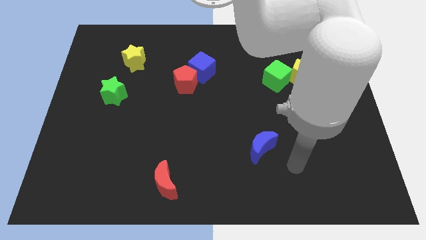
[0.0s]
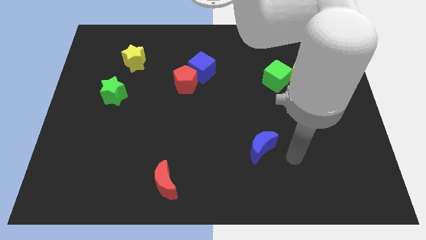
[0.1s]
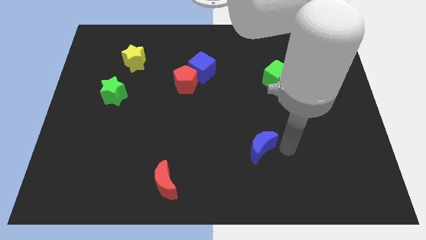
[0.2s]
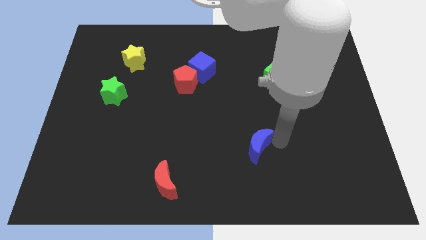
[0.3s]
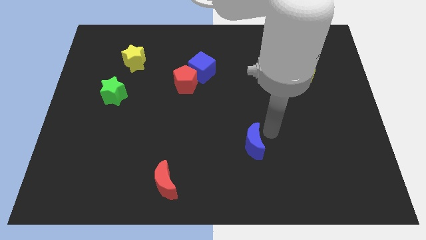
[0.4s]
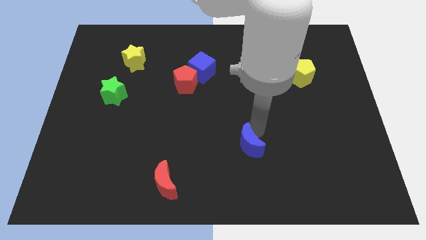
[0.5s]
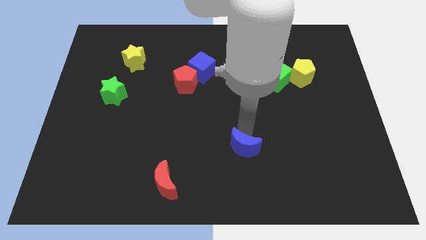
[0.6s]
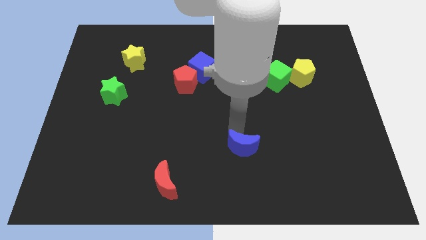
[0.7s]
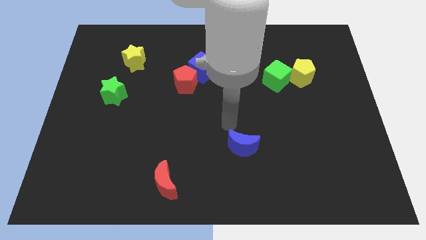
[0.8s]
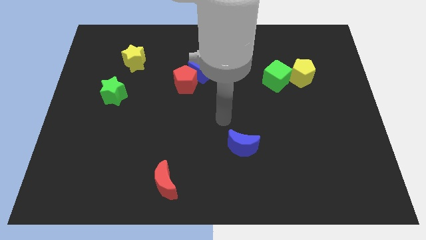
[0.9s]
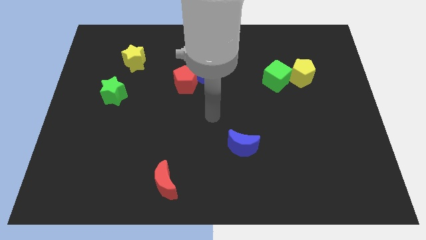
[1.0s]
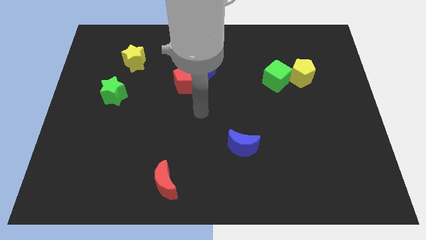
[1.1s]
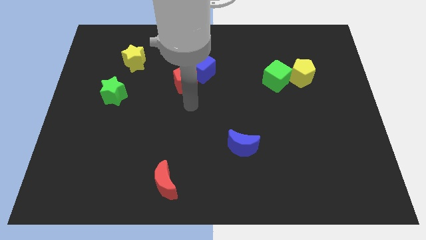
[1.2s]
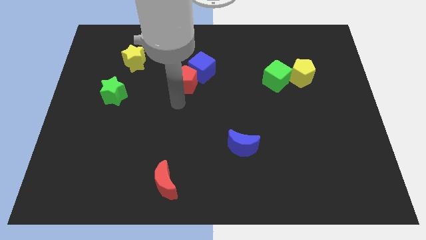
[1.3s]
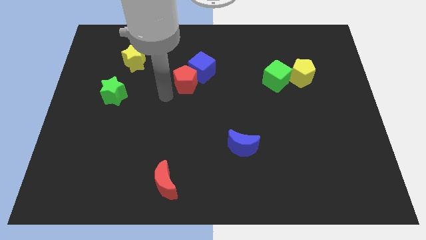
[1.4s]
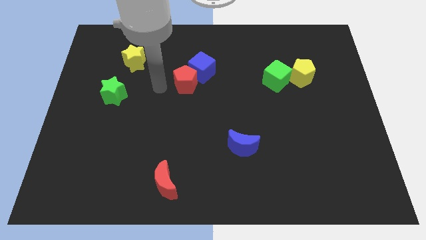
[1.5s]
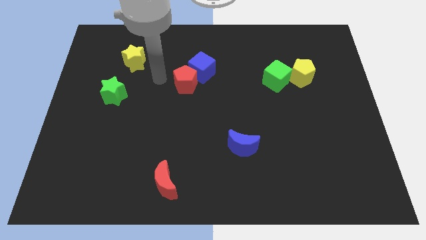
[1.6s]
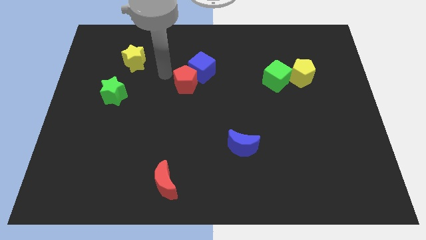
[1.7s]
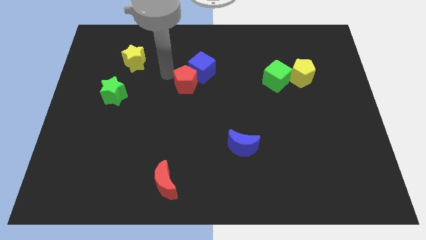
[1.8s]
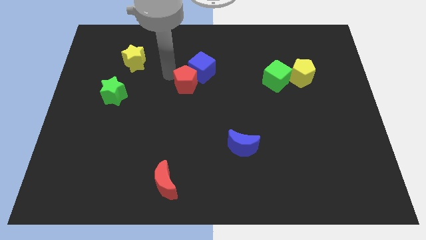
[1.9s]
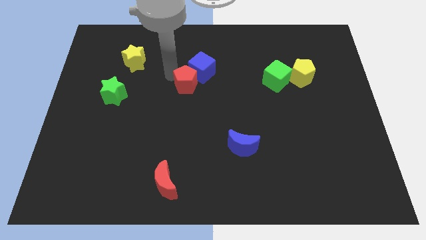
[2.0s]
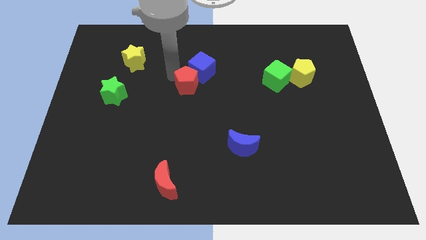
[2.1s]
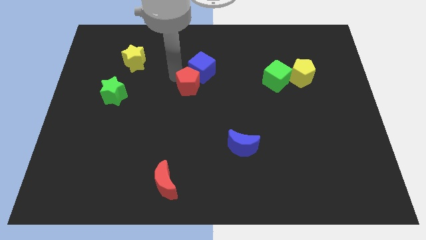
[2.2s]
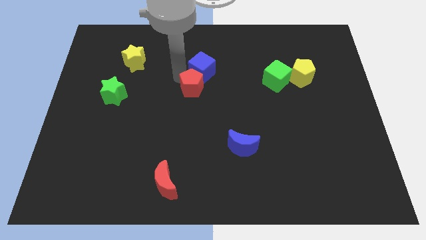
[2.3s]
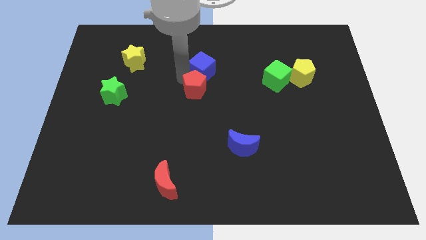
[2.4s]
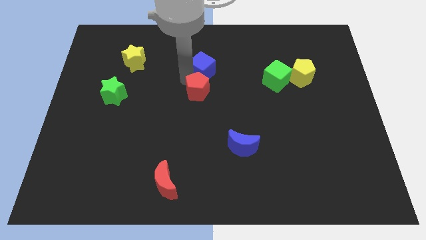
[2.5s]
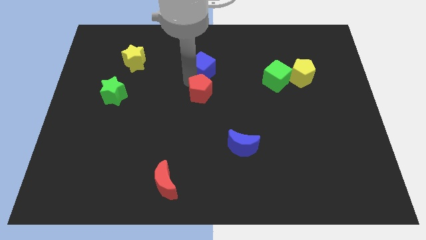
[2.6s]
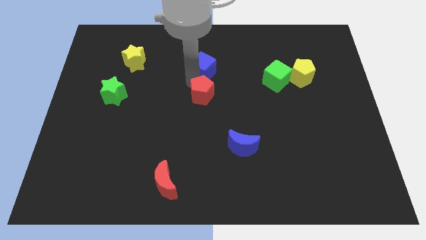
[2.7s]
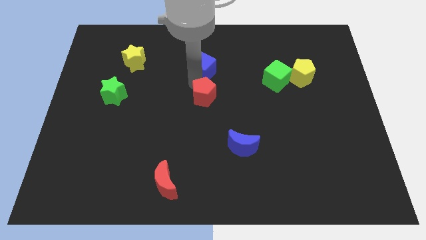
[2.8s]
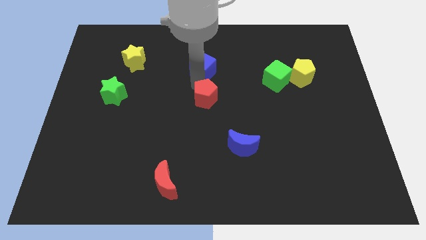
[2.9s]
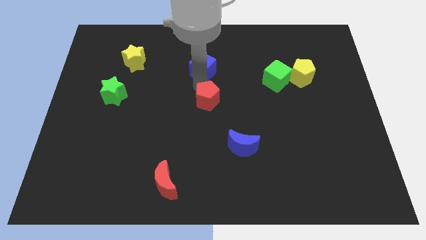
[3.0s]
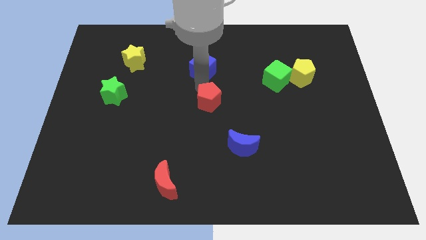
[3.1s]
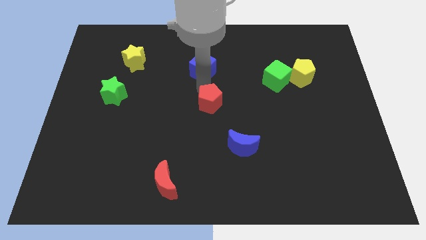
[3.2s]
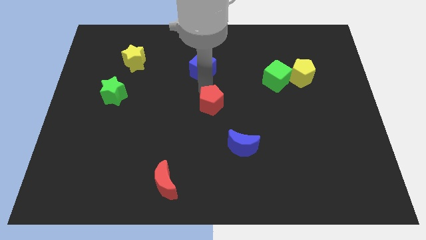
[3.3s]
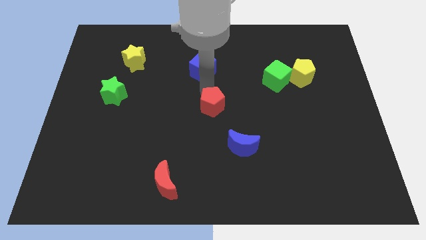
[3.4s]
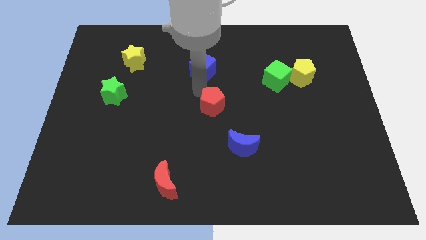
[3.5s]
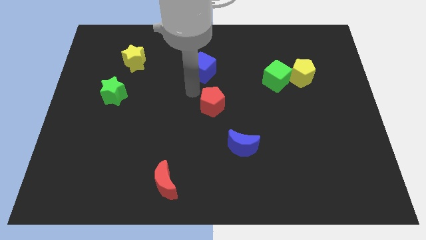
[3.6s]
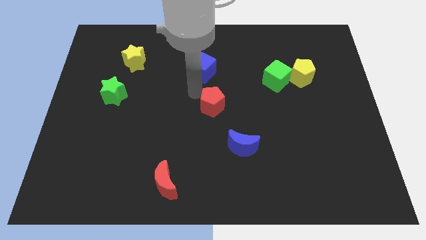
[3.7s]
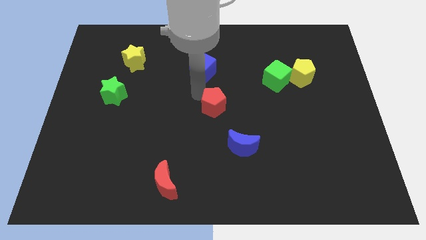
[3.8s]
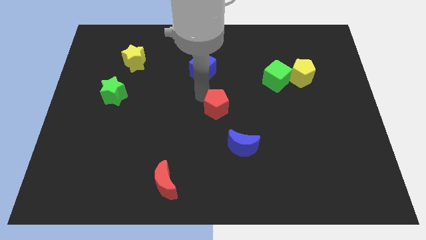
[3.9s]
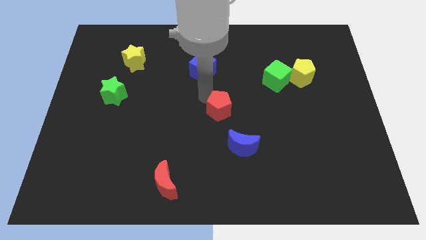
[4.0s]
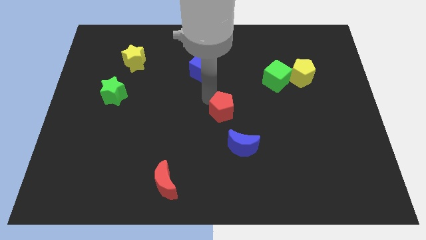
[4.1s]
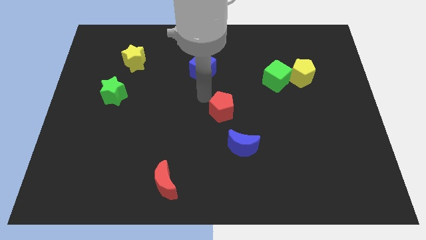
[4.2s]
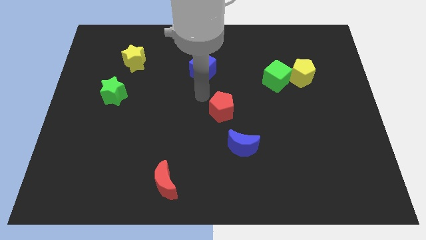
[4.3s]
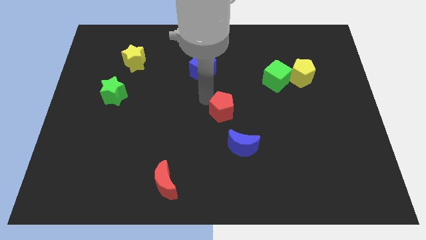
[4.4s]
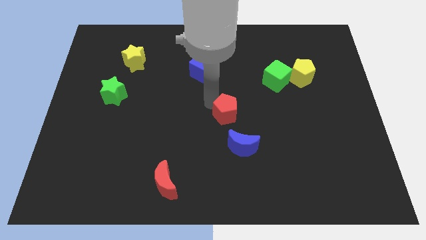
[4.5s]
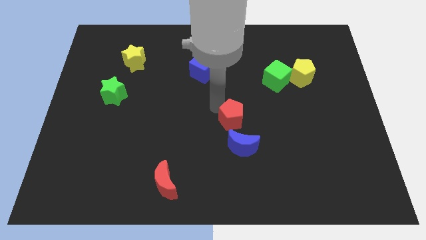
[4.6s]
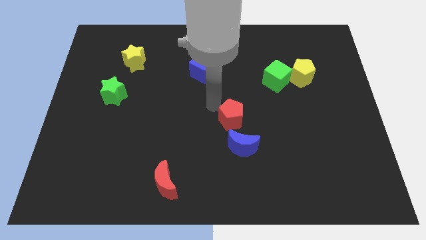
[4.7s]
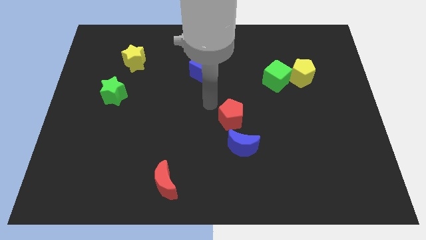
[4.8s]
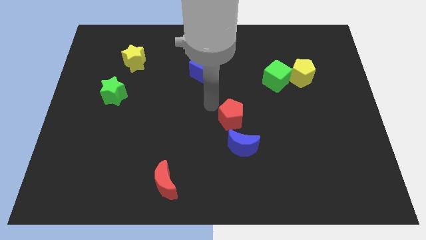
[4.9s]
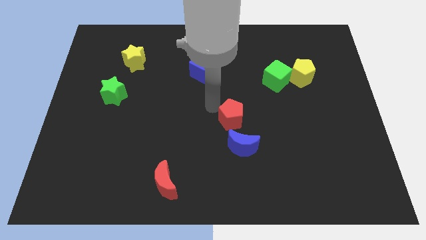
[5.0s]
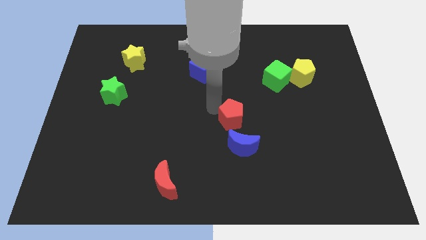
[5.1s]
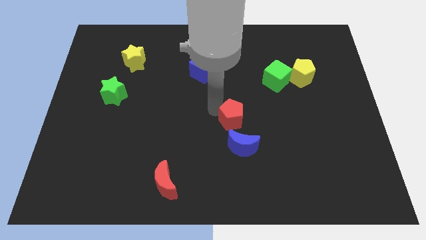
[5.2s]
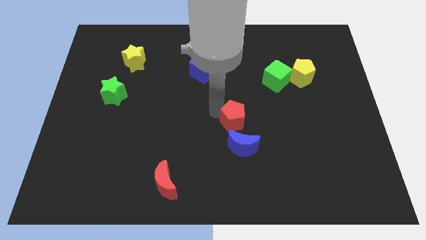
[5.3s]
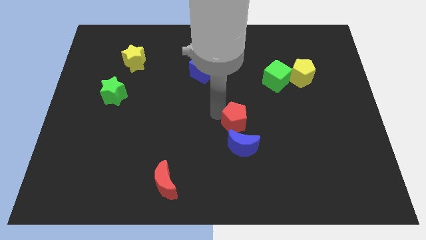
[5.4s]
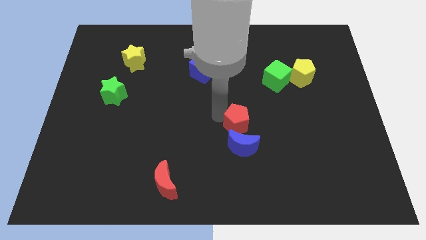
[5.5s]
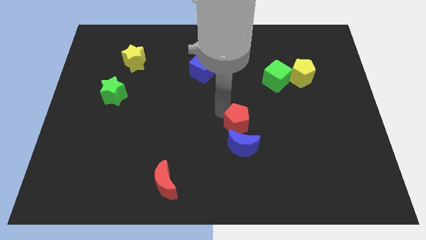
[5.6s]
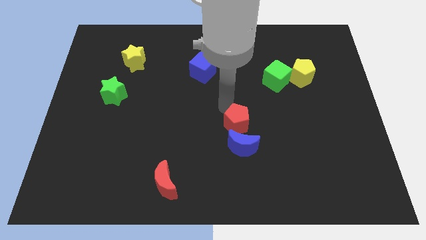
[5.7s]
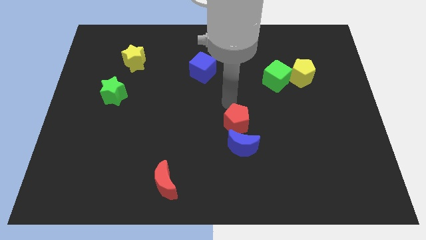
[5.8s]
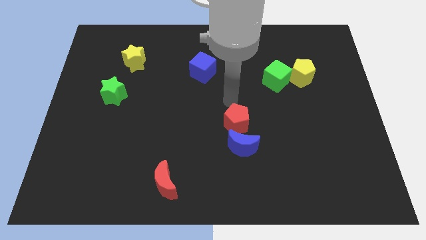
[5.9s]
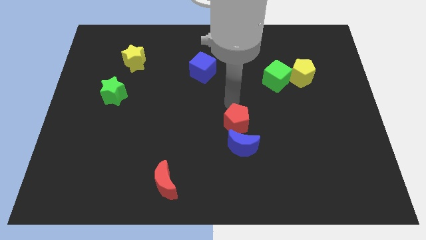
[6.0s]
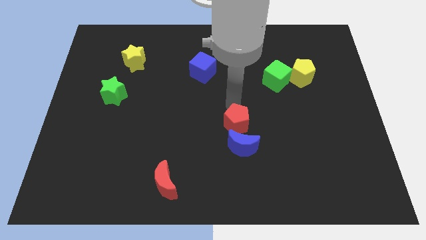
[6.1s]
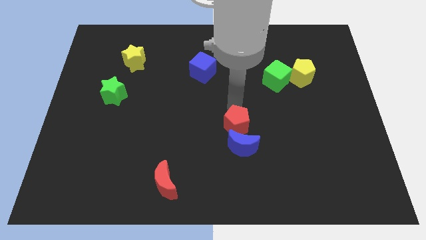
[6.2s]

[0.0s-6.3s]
slide the red pentagon next to the blue moon

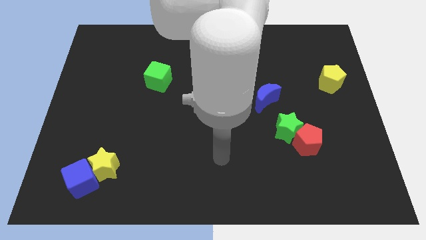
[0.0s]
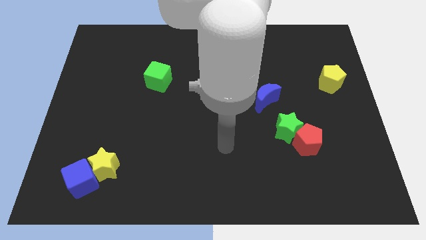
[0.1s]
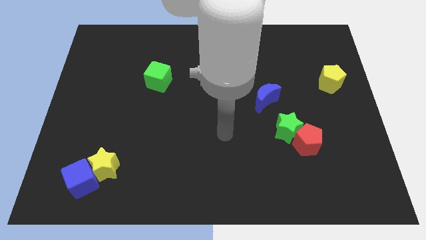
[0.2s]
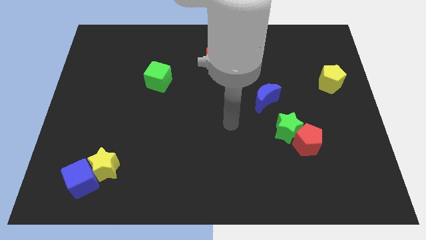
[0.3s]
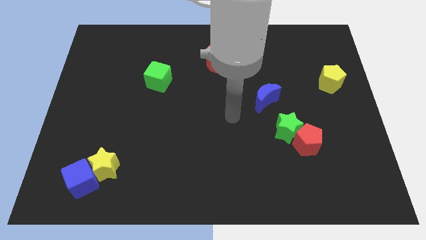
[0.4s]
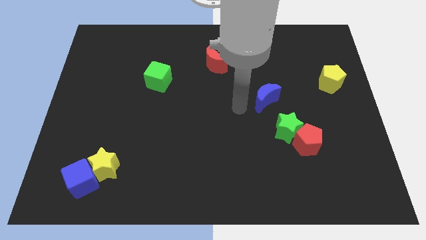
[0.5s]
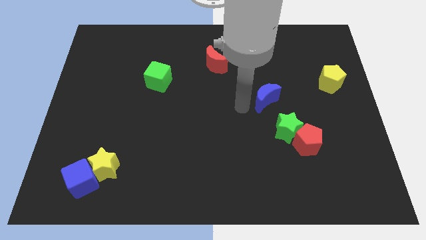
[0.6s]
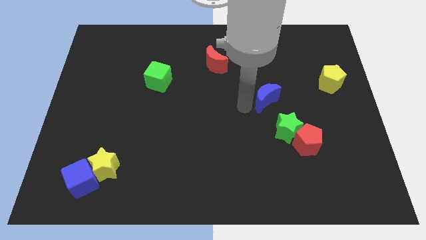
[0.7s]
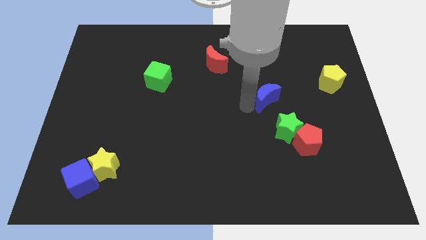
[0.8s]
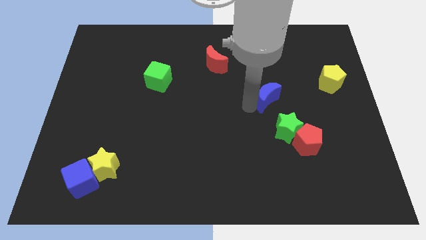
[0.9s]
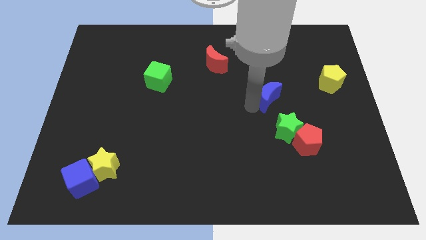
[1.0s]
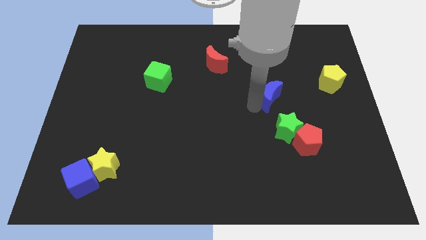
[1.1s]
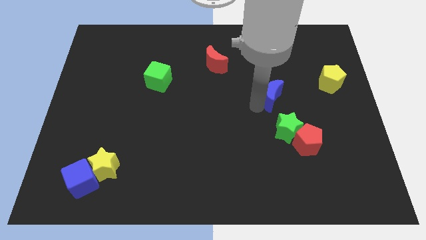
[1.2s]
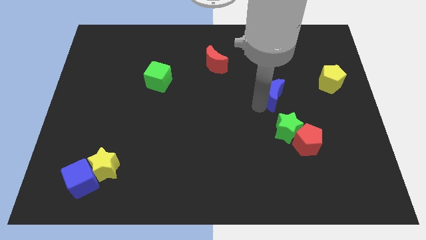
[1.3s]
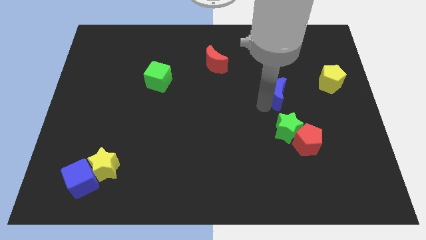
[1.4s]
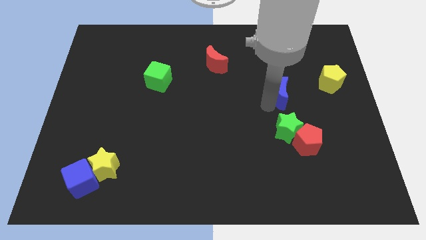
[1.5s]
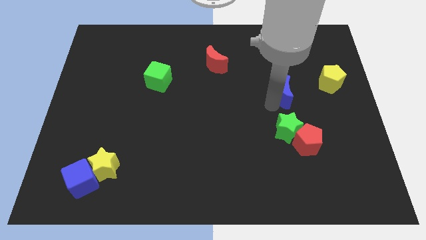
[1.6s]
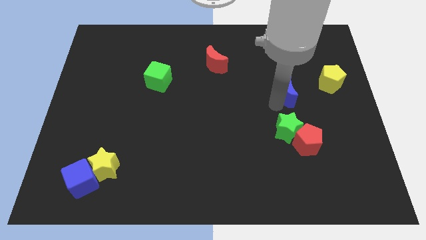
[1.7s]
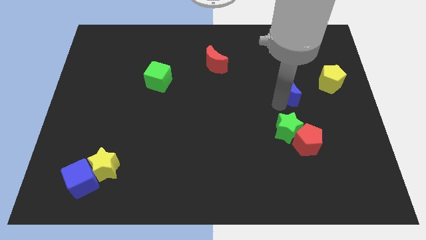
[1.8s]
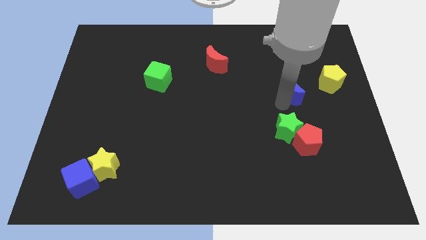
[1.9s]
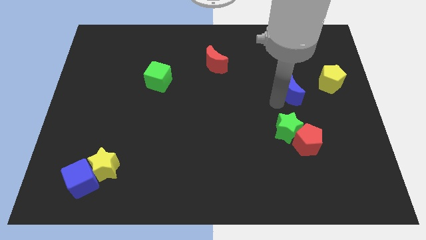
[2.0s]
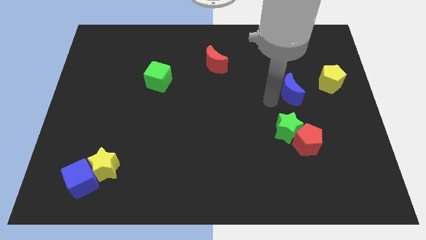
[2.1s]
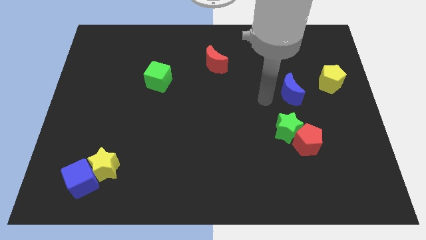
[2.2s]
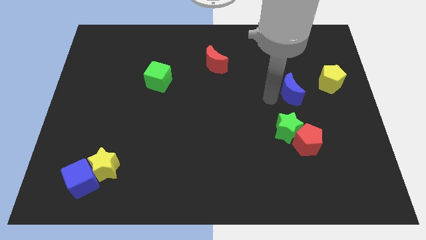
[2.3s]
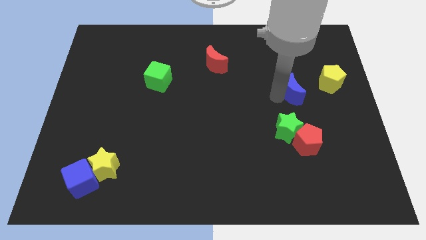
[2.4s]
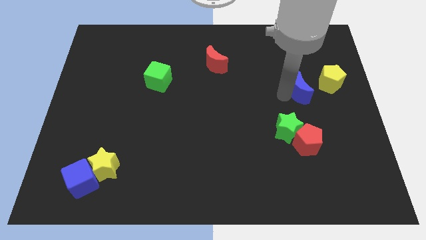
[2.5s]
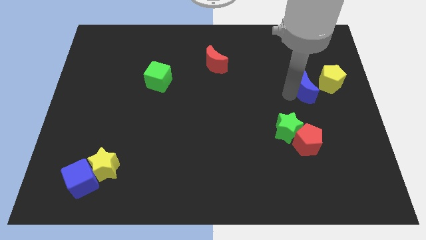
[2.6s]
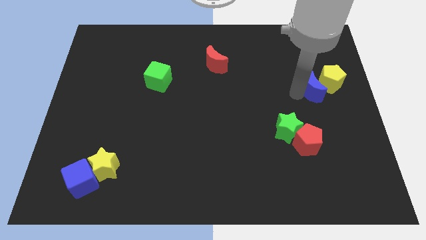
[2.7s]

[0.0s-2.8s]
move the blue moon next to the yellow pentagon
